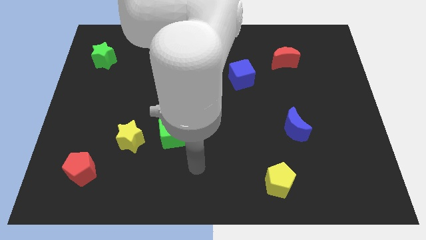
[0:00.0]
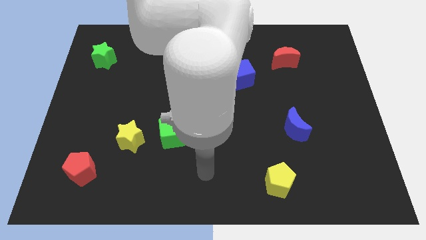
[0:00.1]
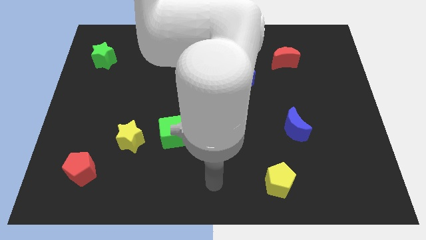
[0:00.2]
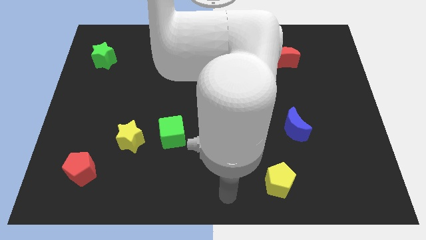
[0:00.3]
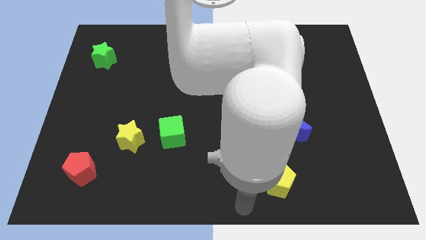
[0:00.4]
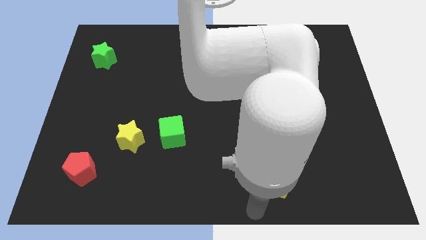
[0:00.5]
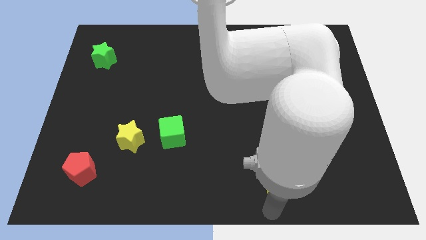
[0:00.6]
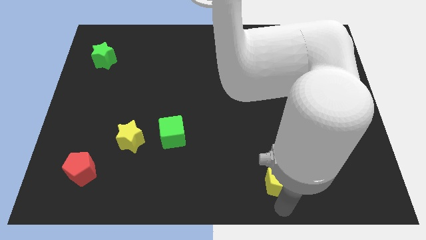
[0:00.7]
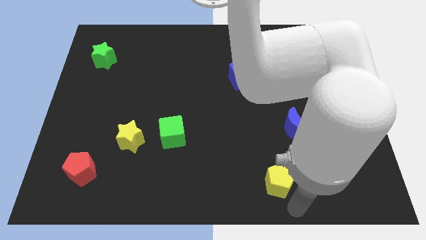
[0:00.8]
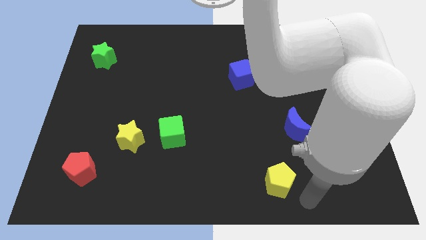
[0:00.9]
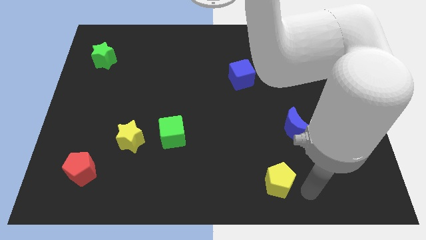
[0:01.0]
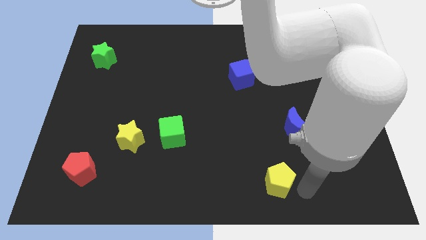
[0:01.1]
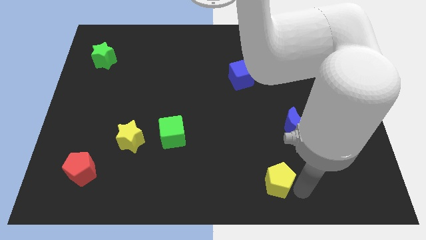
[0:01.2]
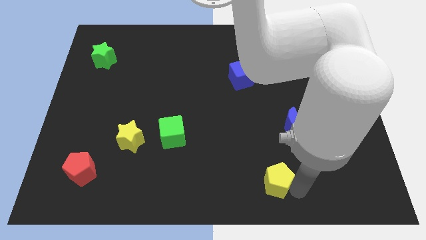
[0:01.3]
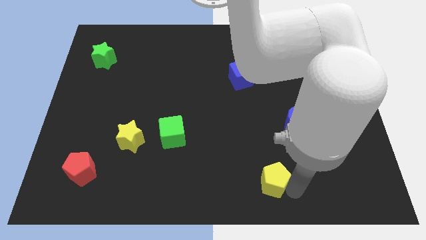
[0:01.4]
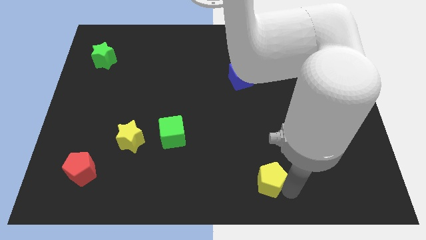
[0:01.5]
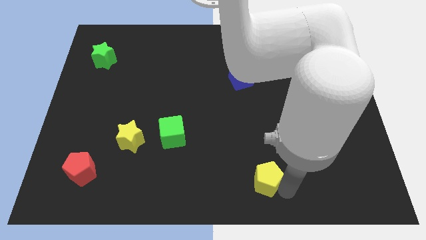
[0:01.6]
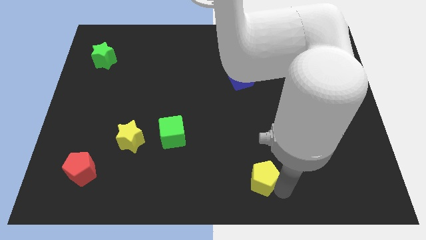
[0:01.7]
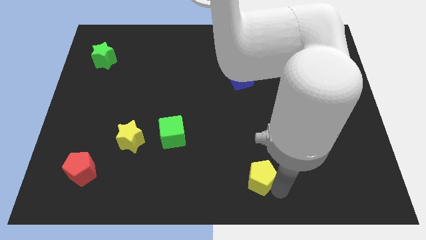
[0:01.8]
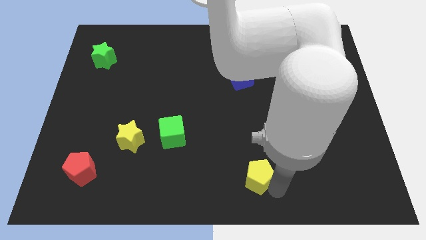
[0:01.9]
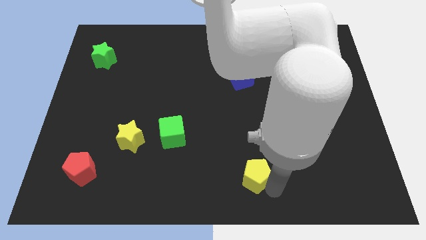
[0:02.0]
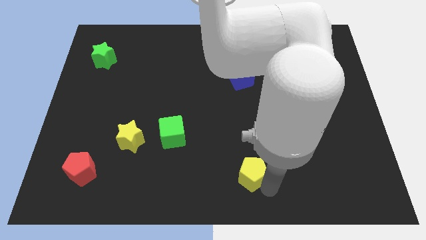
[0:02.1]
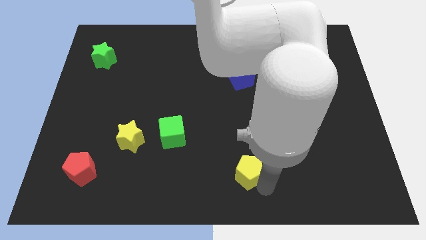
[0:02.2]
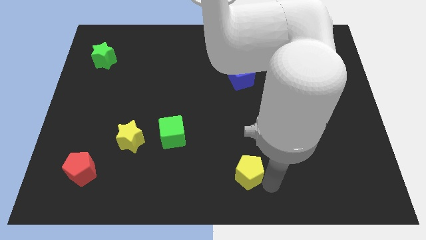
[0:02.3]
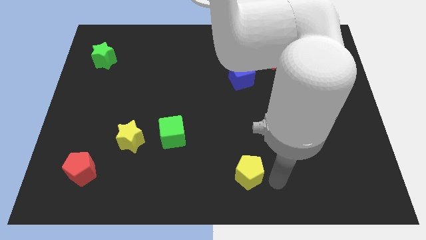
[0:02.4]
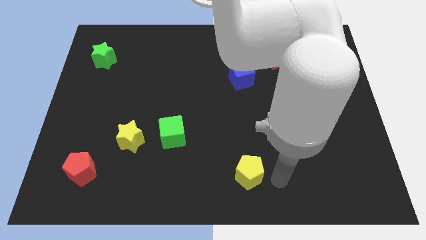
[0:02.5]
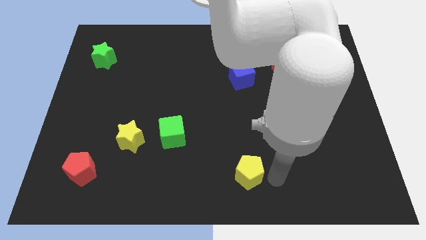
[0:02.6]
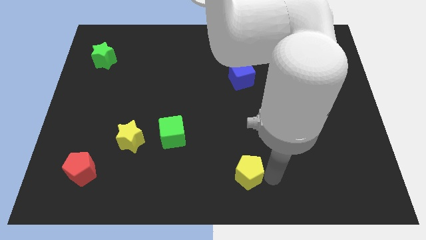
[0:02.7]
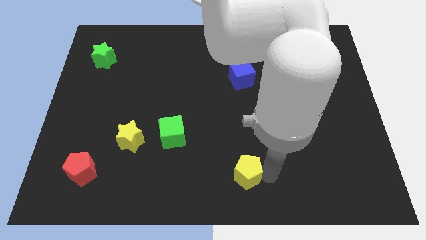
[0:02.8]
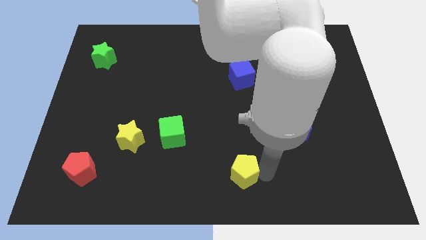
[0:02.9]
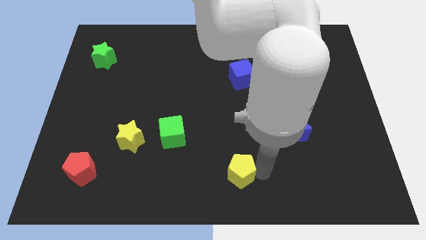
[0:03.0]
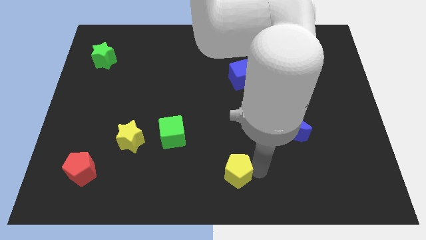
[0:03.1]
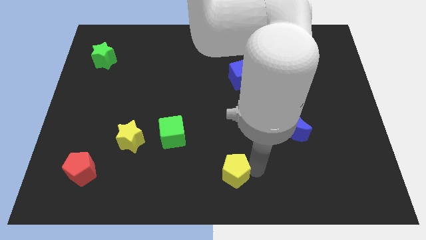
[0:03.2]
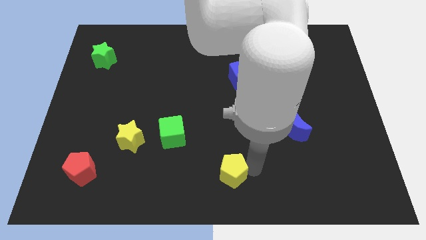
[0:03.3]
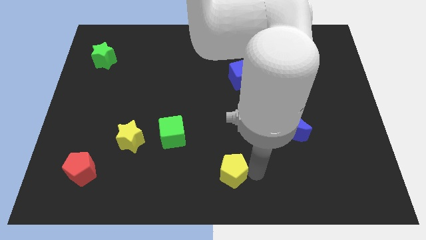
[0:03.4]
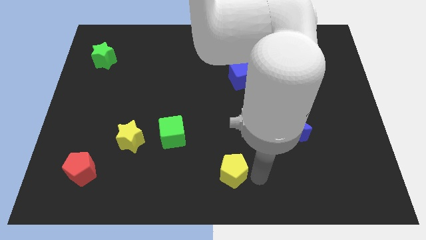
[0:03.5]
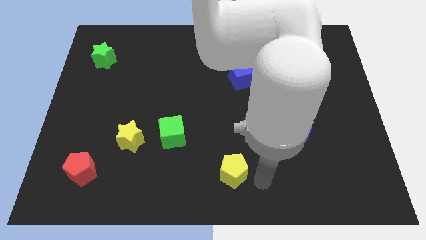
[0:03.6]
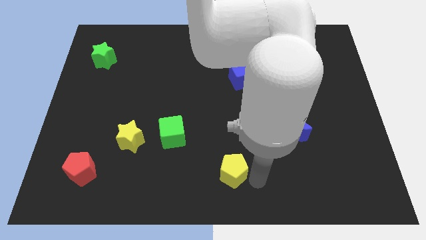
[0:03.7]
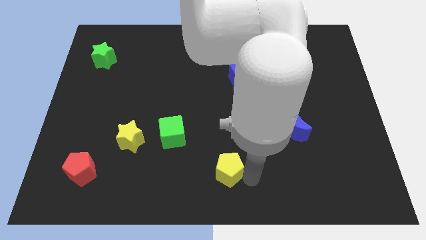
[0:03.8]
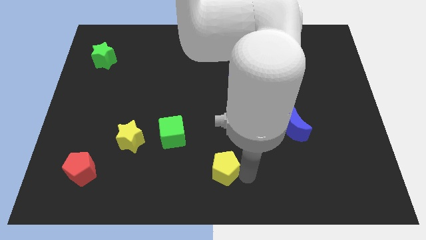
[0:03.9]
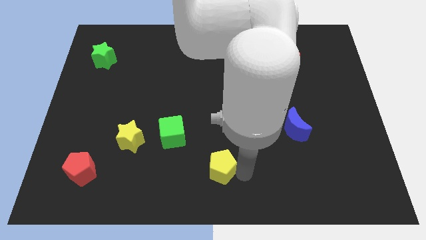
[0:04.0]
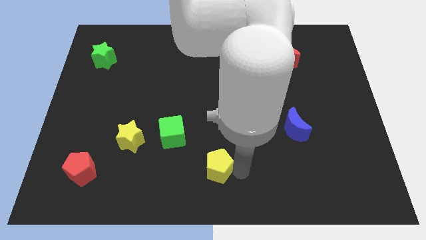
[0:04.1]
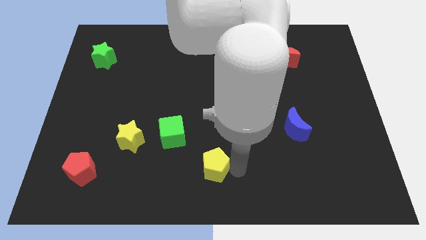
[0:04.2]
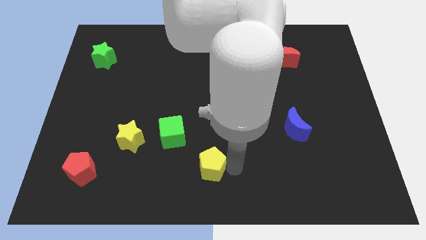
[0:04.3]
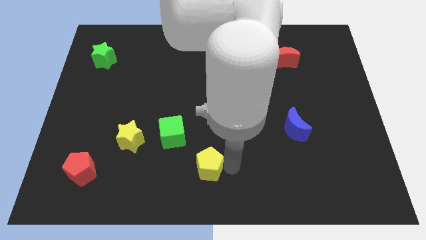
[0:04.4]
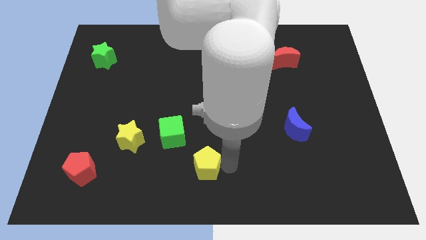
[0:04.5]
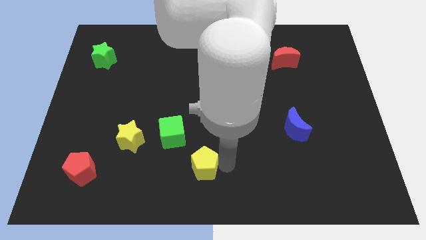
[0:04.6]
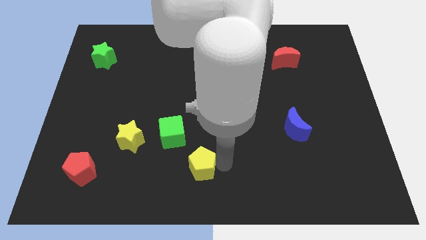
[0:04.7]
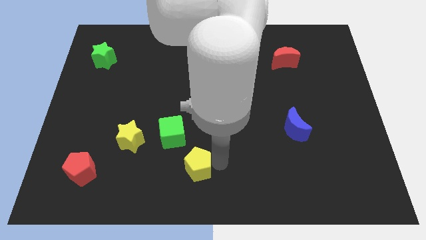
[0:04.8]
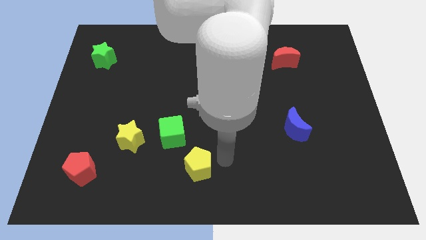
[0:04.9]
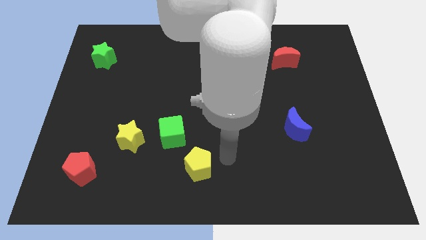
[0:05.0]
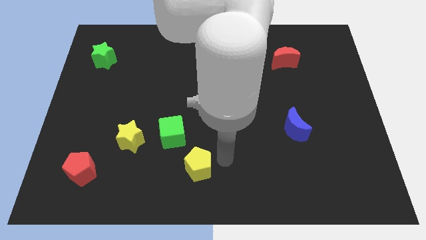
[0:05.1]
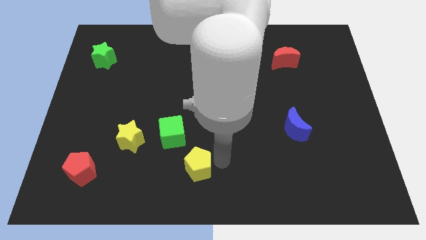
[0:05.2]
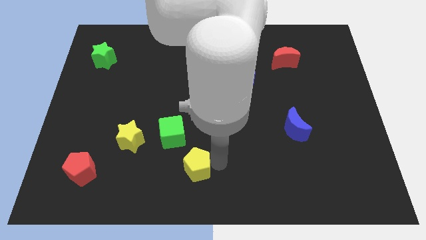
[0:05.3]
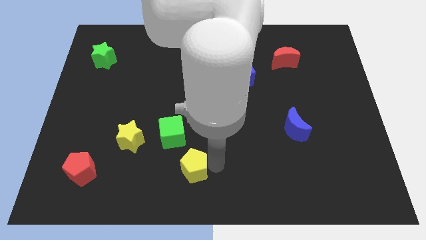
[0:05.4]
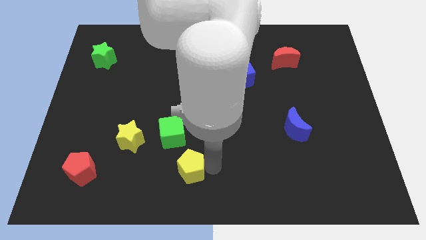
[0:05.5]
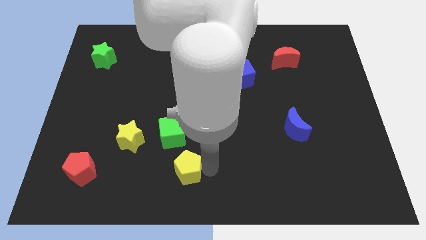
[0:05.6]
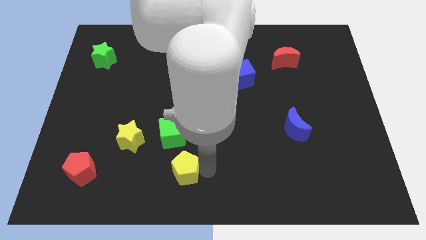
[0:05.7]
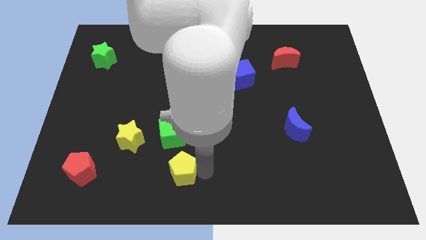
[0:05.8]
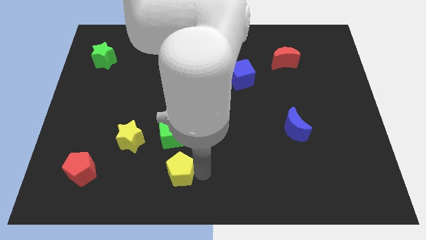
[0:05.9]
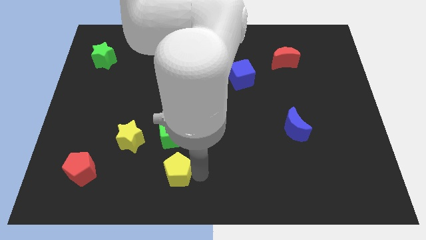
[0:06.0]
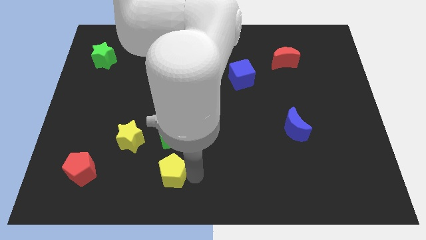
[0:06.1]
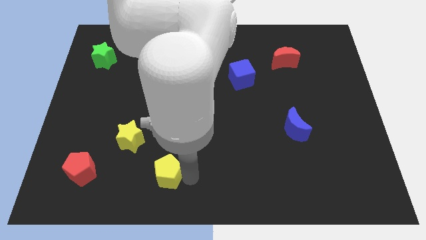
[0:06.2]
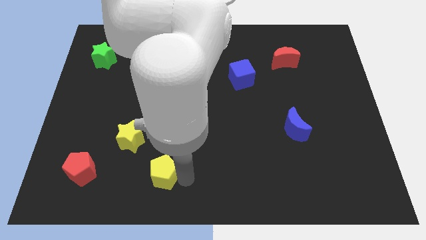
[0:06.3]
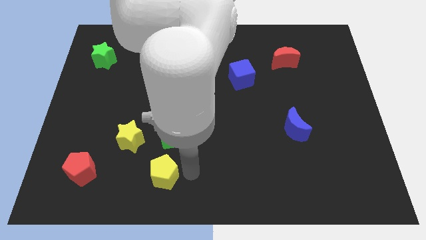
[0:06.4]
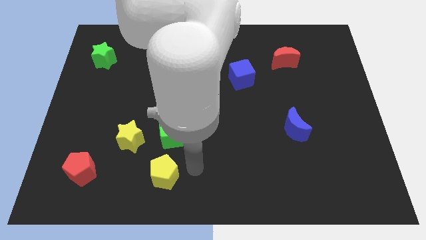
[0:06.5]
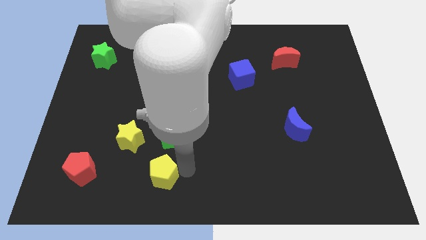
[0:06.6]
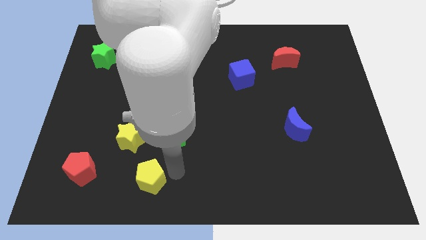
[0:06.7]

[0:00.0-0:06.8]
slide the yellow pentagon to the bottom of the yellow star

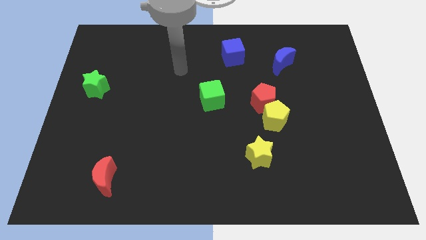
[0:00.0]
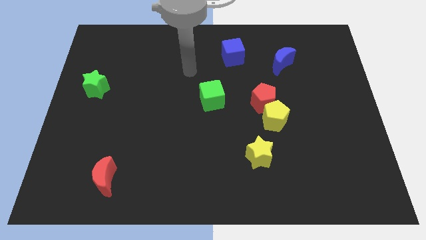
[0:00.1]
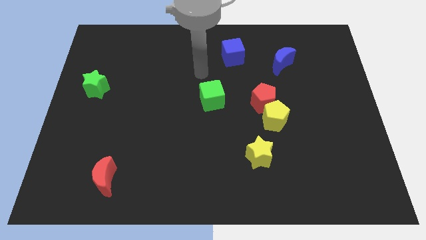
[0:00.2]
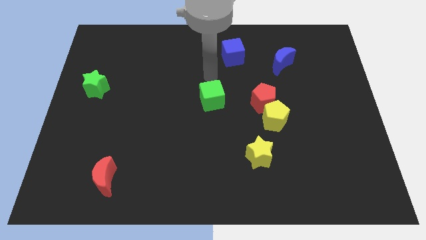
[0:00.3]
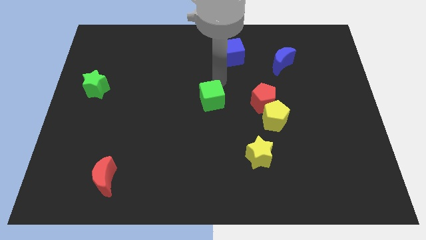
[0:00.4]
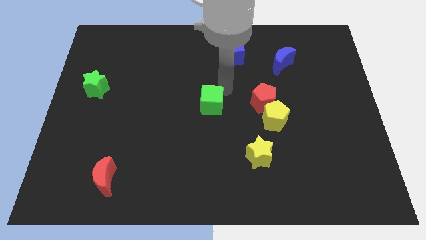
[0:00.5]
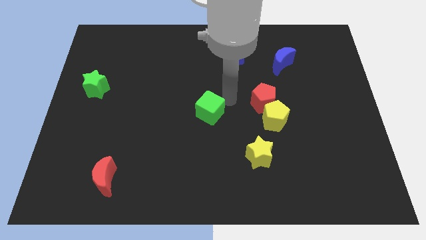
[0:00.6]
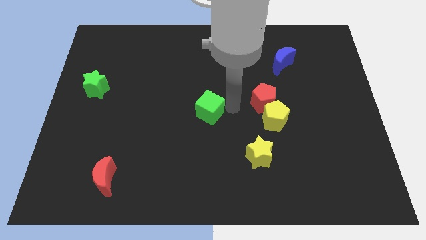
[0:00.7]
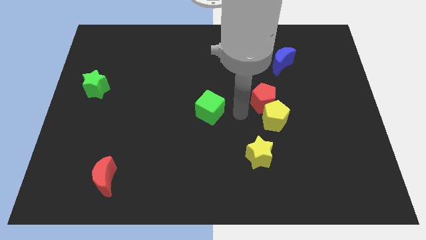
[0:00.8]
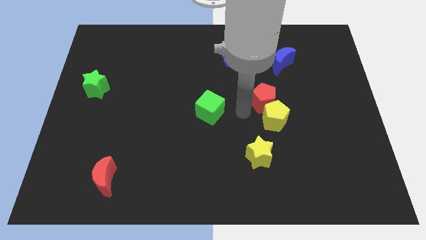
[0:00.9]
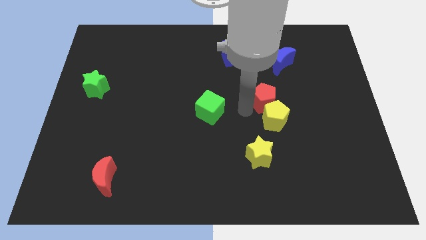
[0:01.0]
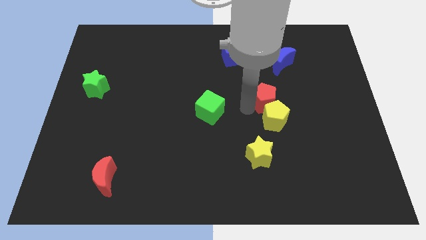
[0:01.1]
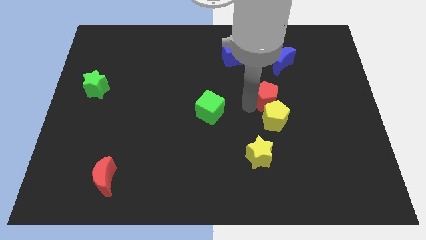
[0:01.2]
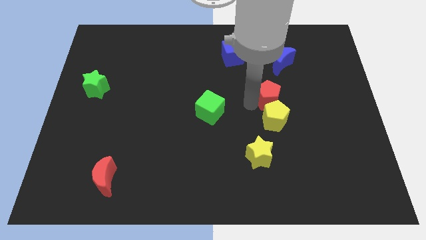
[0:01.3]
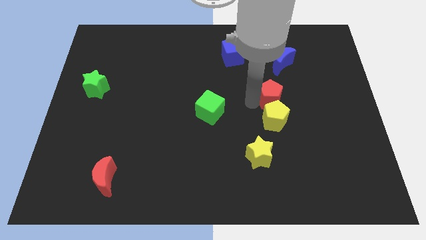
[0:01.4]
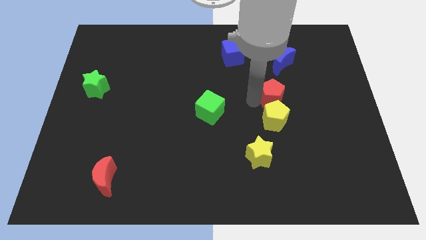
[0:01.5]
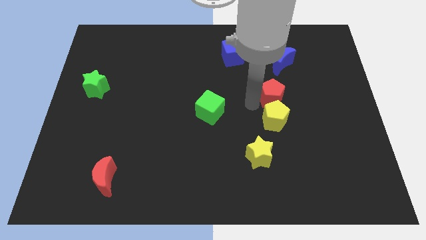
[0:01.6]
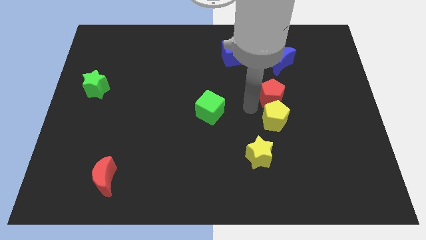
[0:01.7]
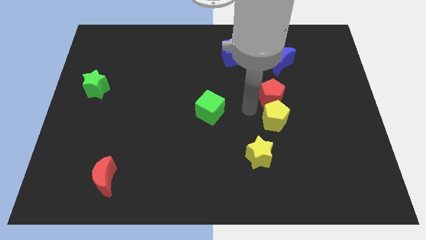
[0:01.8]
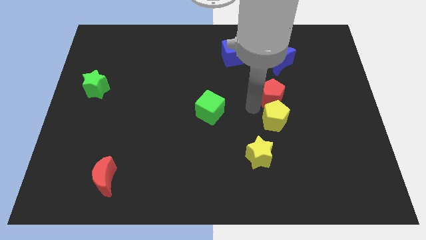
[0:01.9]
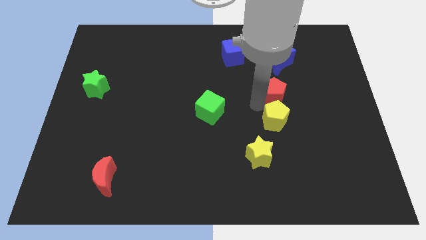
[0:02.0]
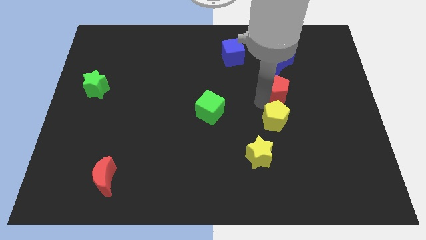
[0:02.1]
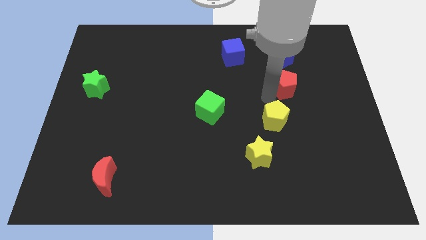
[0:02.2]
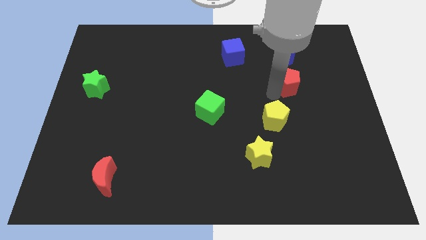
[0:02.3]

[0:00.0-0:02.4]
push the red pentagon to the bottom right side of the blue moon
